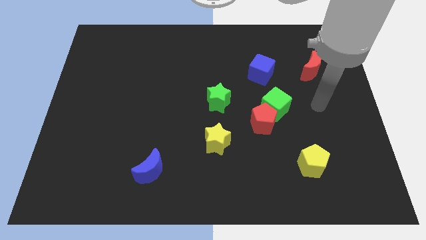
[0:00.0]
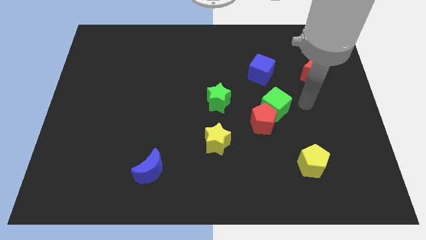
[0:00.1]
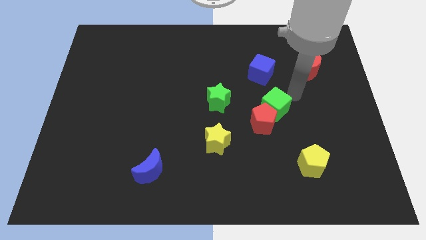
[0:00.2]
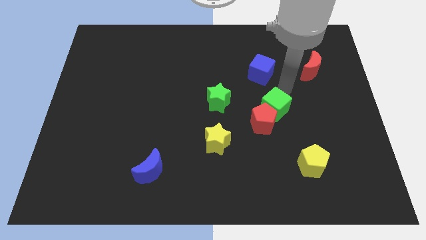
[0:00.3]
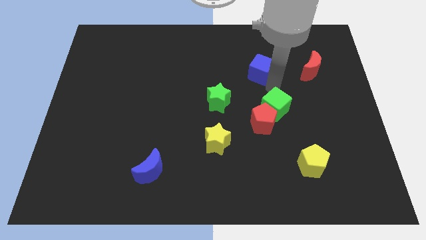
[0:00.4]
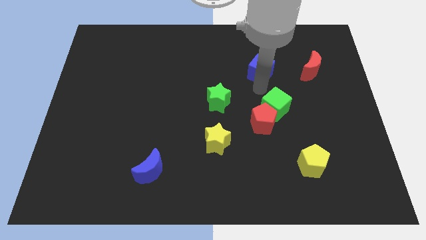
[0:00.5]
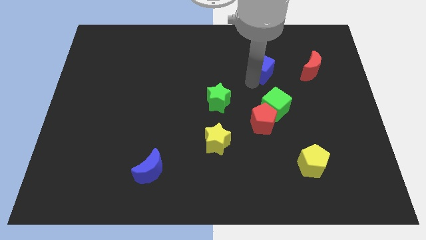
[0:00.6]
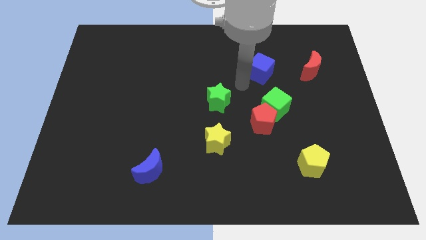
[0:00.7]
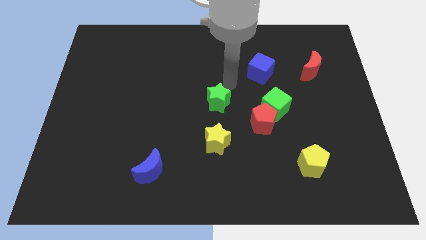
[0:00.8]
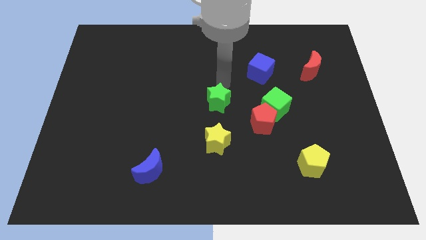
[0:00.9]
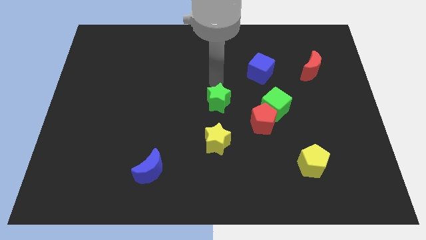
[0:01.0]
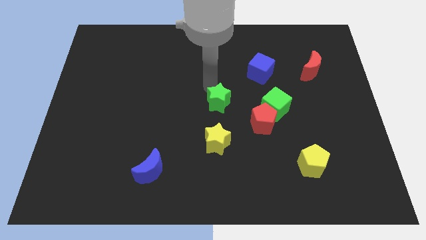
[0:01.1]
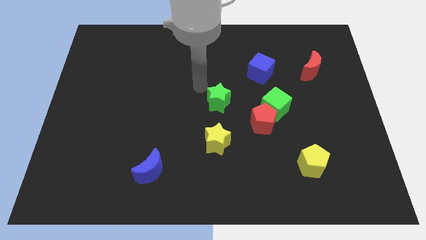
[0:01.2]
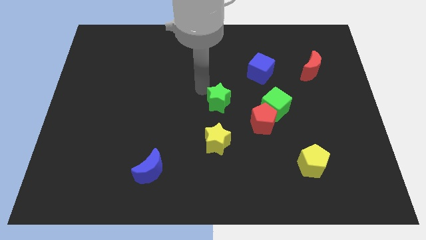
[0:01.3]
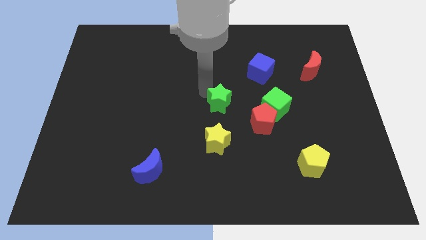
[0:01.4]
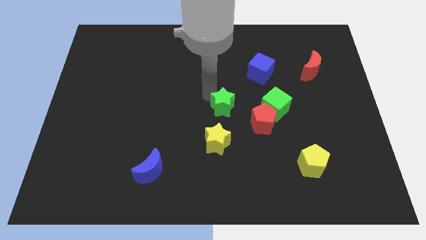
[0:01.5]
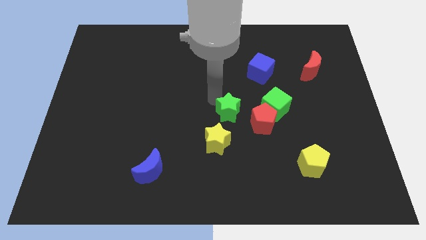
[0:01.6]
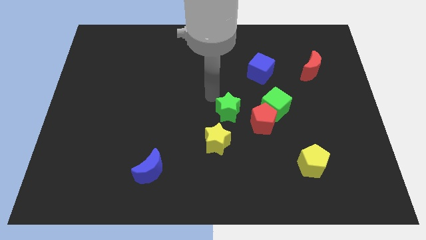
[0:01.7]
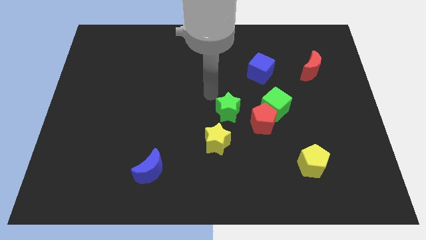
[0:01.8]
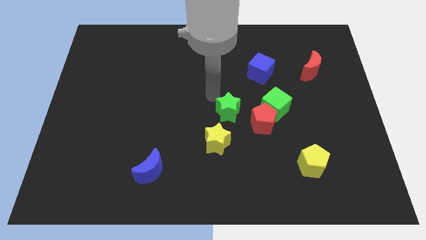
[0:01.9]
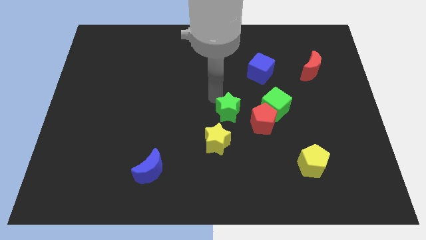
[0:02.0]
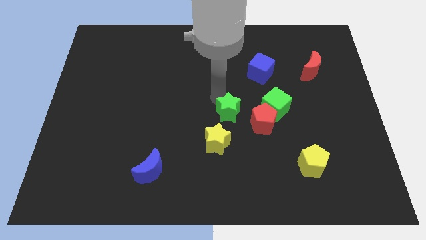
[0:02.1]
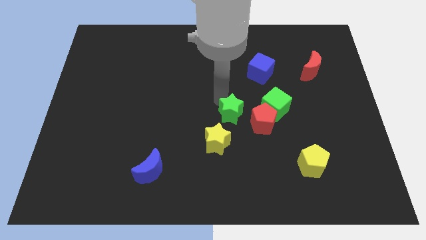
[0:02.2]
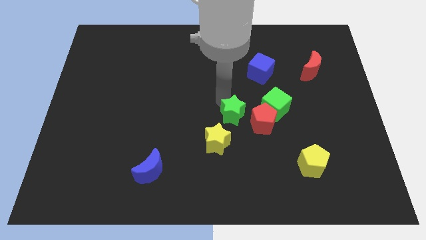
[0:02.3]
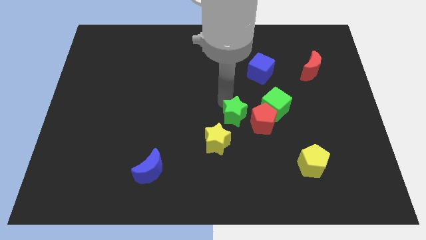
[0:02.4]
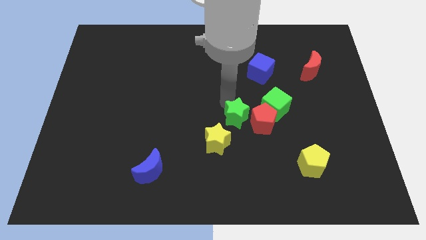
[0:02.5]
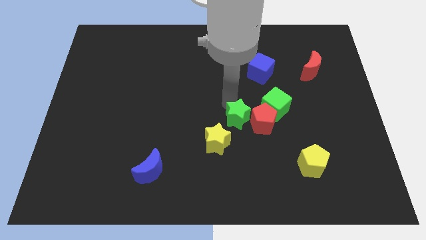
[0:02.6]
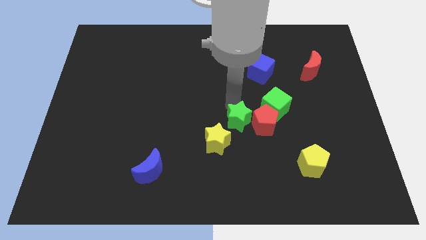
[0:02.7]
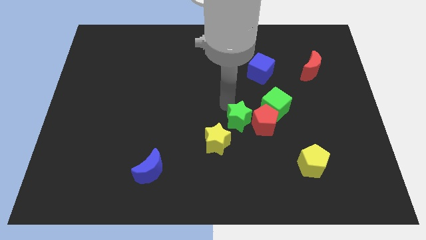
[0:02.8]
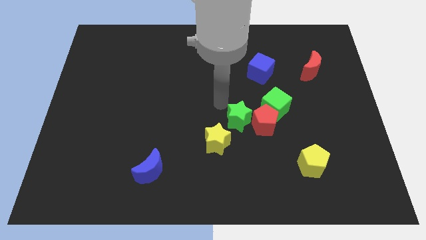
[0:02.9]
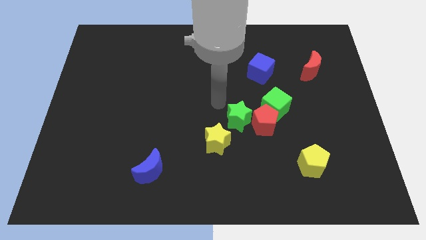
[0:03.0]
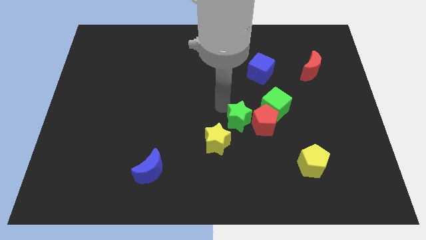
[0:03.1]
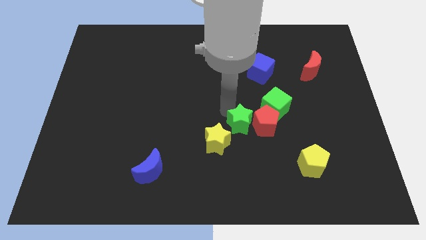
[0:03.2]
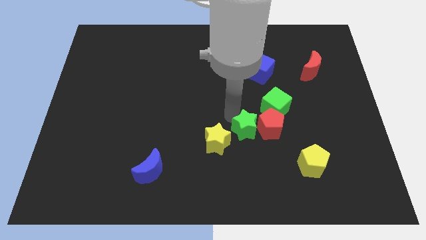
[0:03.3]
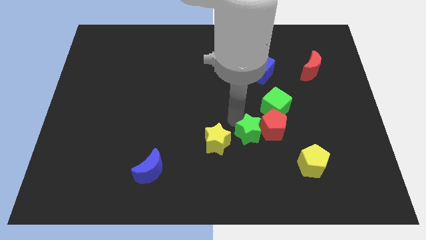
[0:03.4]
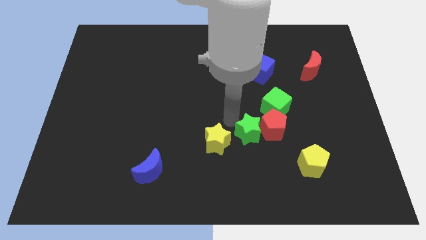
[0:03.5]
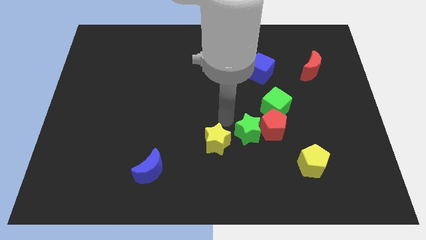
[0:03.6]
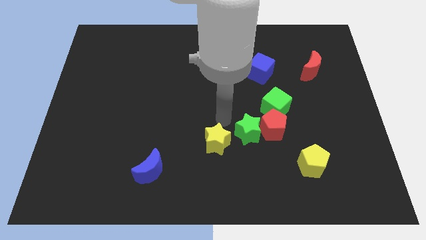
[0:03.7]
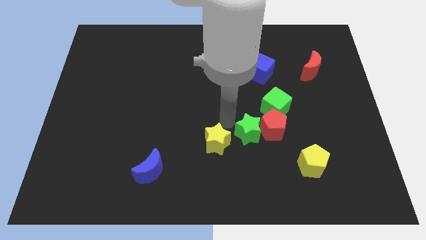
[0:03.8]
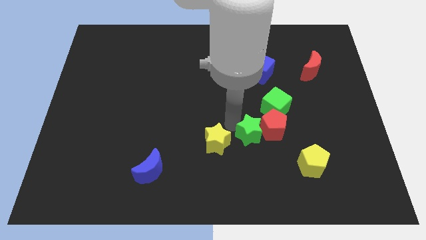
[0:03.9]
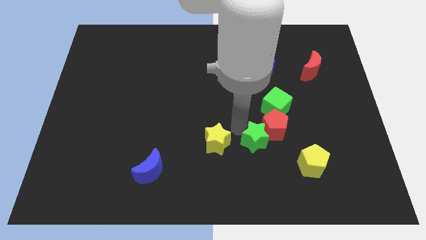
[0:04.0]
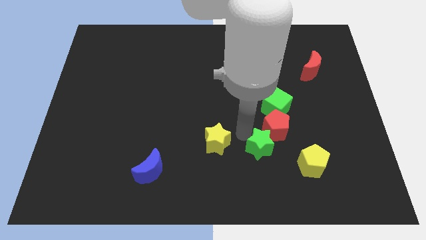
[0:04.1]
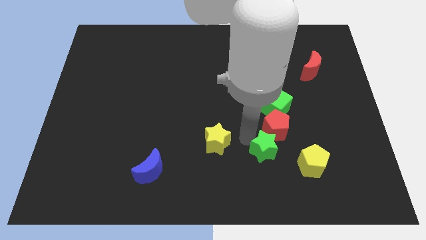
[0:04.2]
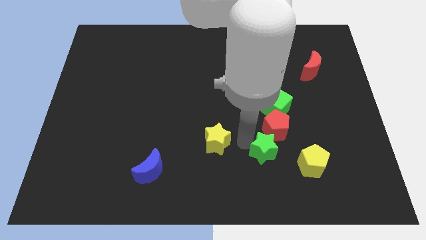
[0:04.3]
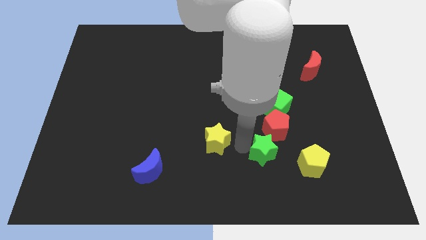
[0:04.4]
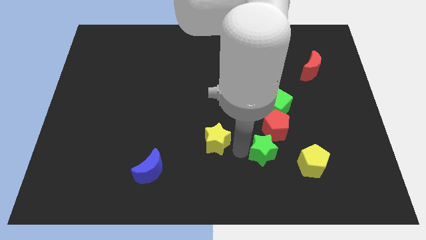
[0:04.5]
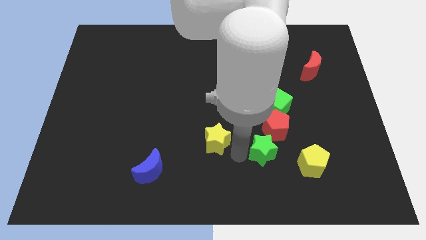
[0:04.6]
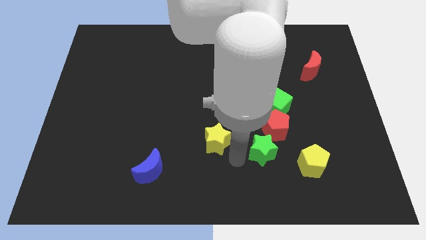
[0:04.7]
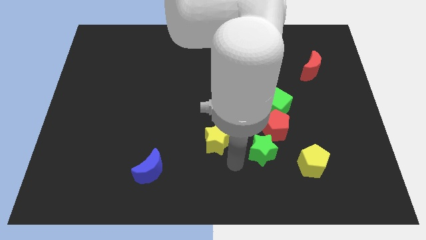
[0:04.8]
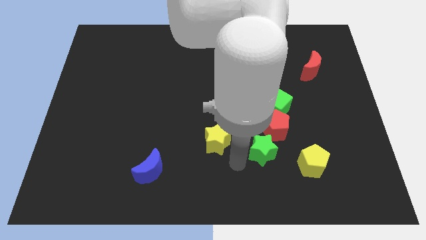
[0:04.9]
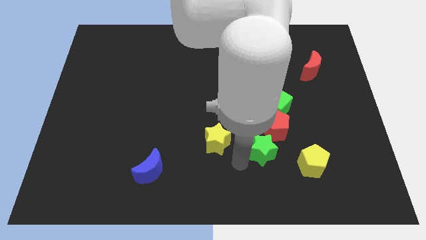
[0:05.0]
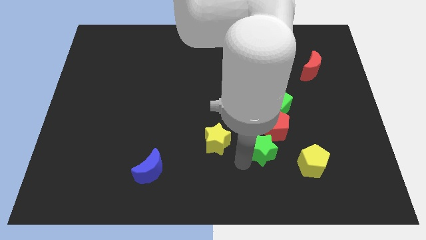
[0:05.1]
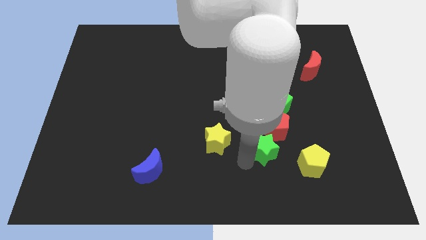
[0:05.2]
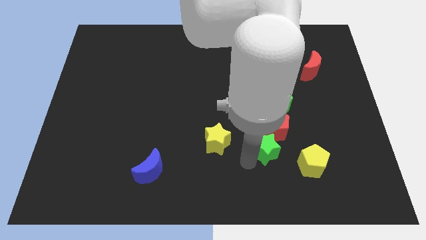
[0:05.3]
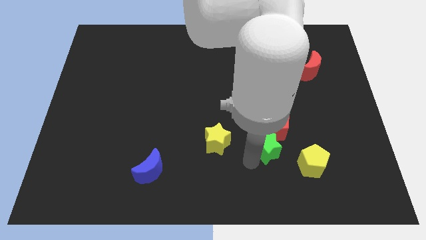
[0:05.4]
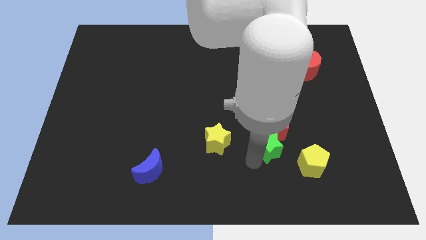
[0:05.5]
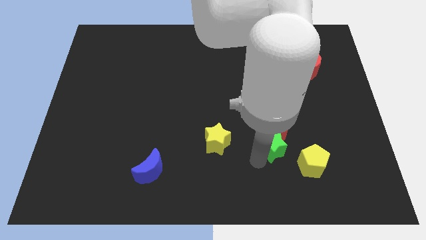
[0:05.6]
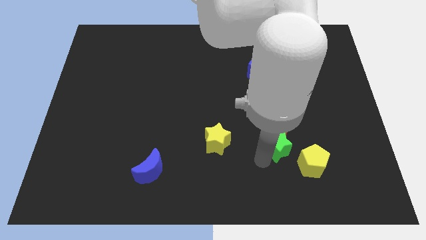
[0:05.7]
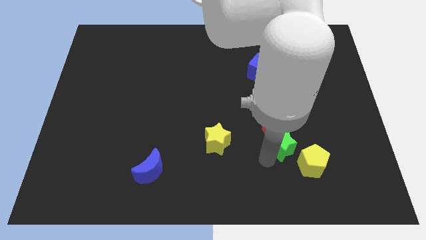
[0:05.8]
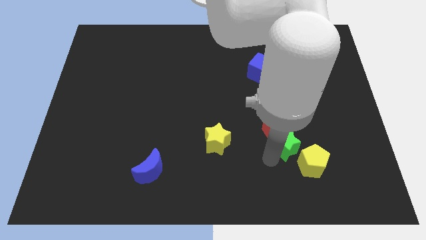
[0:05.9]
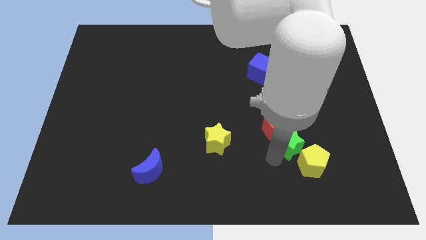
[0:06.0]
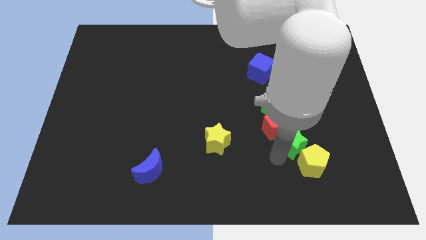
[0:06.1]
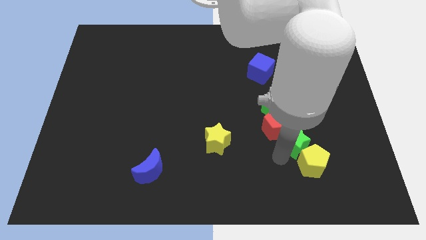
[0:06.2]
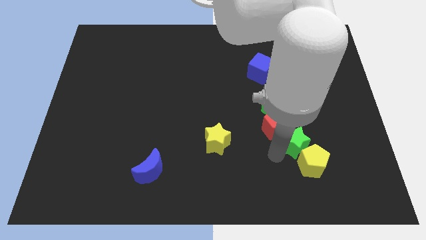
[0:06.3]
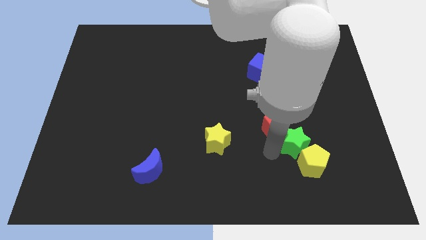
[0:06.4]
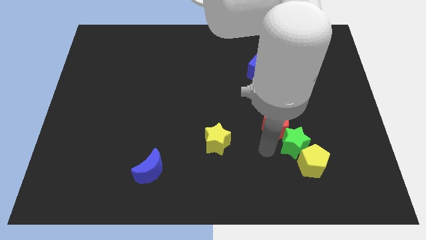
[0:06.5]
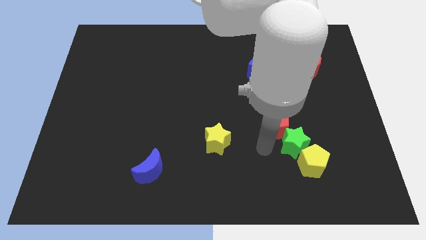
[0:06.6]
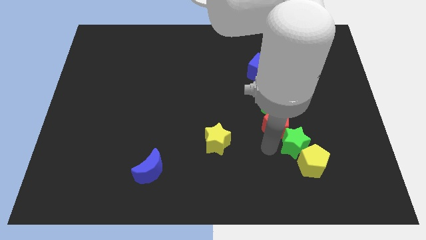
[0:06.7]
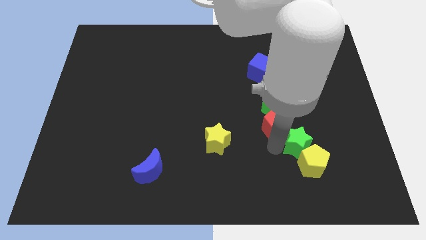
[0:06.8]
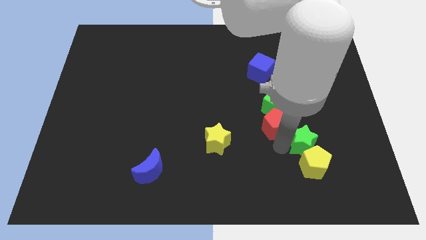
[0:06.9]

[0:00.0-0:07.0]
push the green star to the top right of the yellow pentagon
